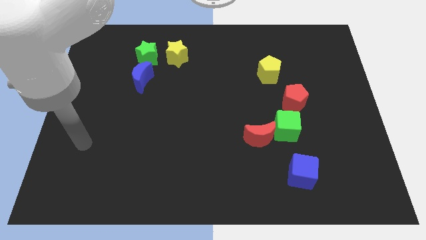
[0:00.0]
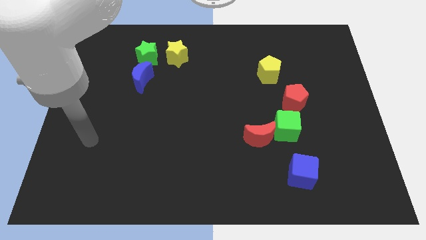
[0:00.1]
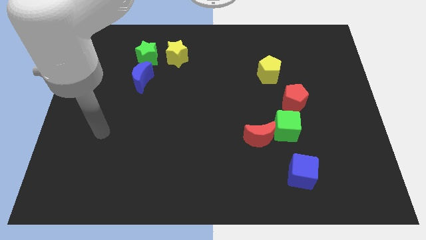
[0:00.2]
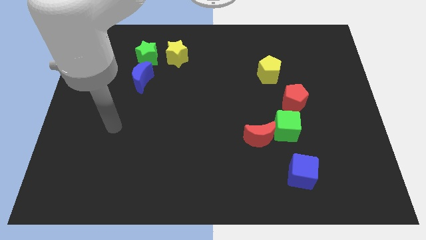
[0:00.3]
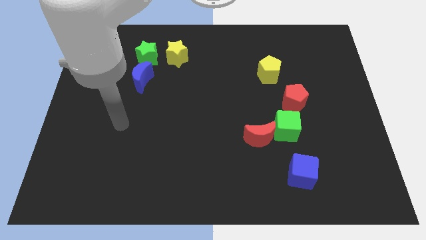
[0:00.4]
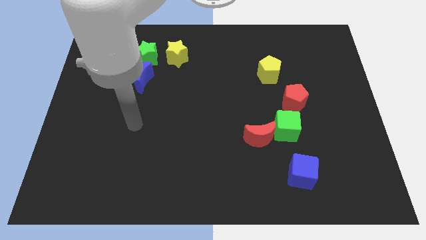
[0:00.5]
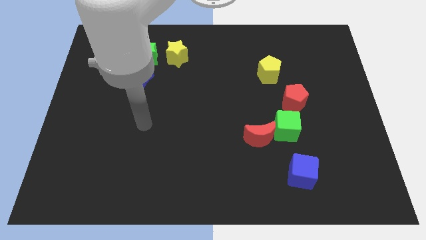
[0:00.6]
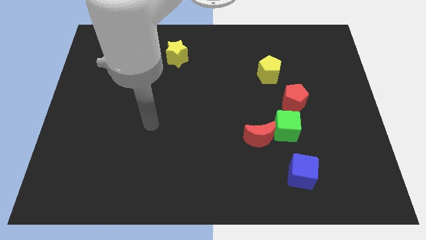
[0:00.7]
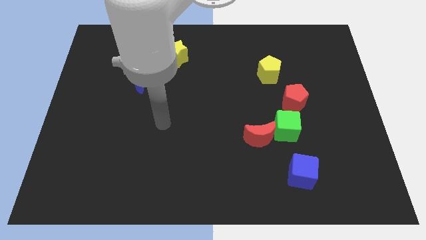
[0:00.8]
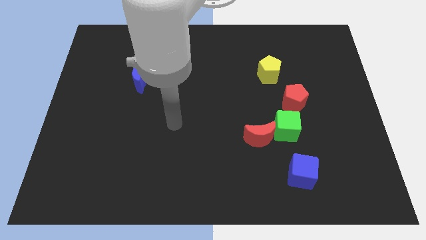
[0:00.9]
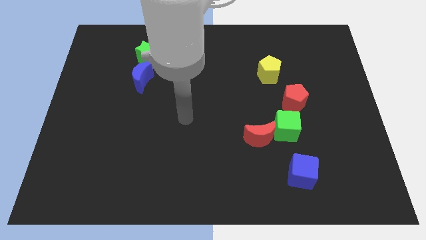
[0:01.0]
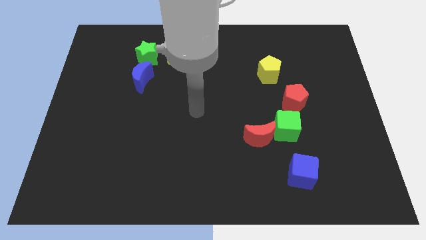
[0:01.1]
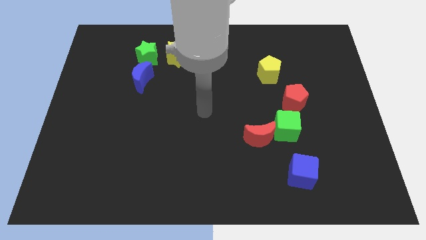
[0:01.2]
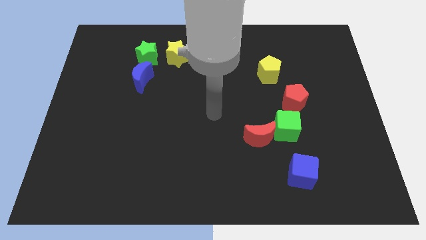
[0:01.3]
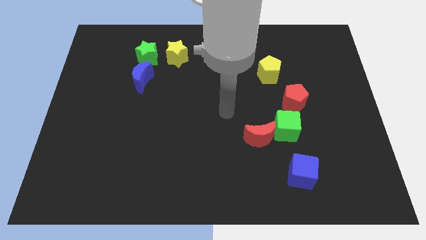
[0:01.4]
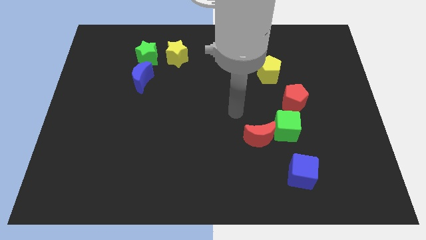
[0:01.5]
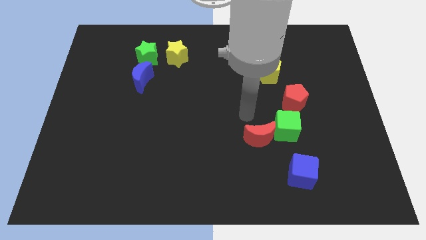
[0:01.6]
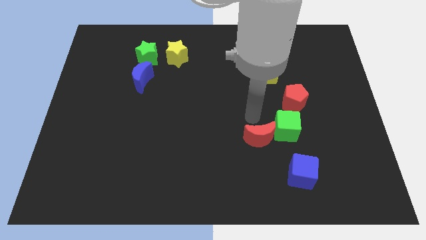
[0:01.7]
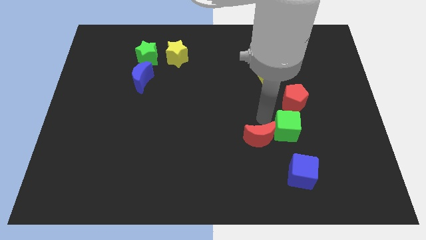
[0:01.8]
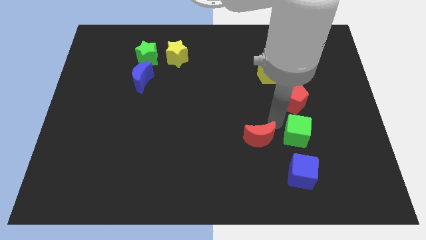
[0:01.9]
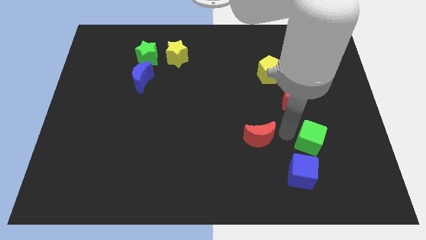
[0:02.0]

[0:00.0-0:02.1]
separate the red moon from the green cube

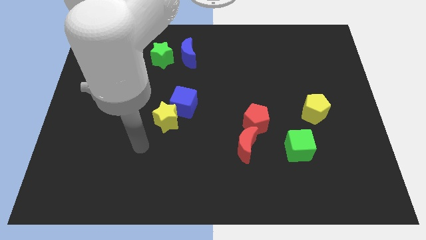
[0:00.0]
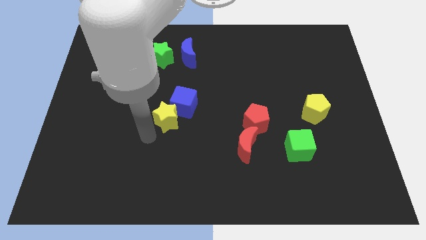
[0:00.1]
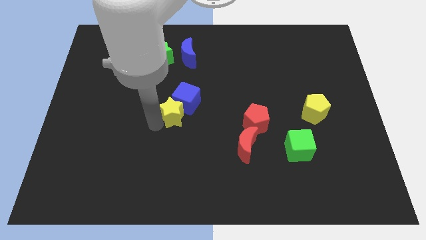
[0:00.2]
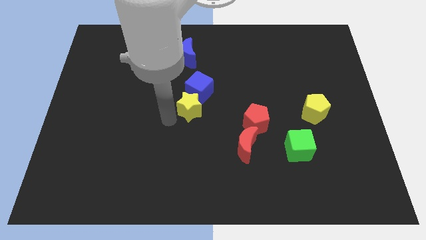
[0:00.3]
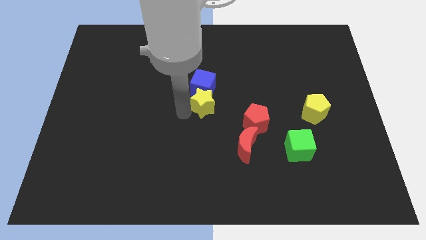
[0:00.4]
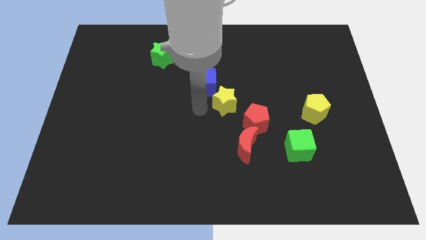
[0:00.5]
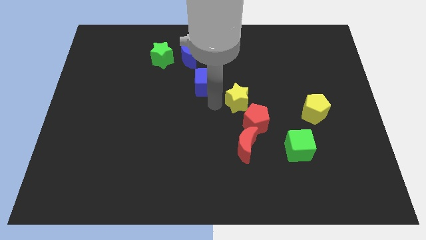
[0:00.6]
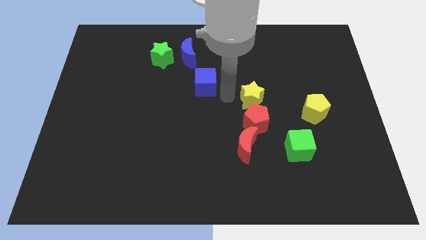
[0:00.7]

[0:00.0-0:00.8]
pull the blue cube apart from the yellow star

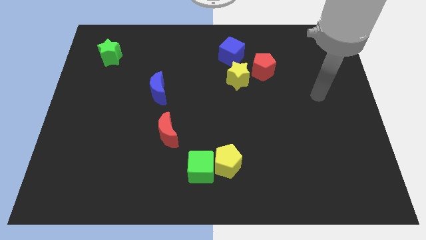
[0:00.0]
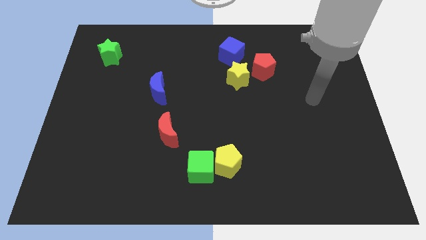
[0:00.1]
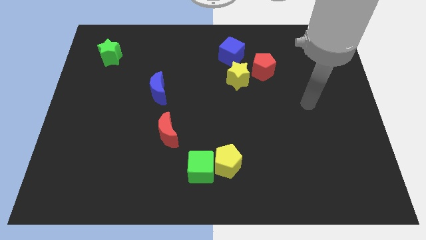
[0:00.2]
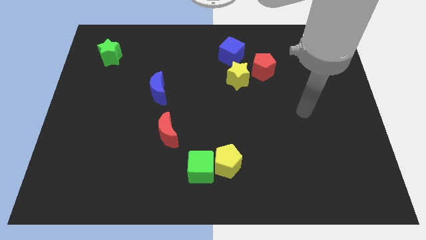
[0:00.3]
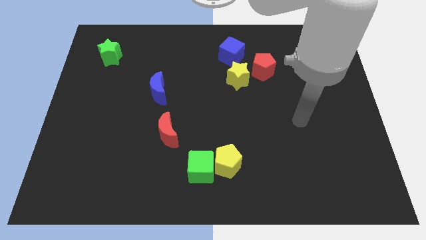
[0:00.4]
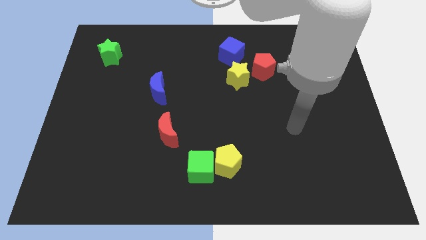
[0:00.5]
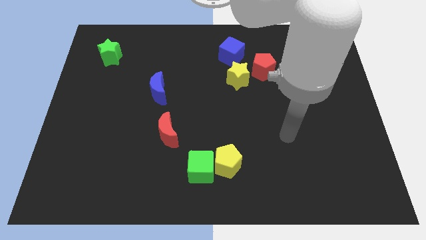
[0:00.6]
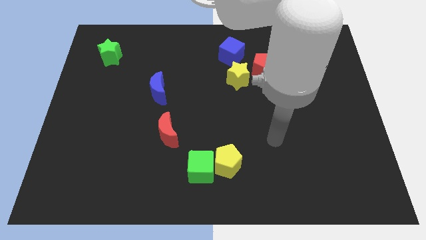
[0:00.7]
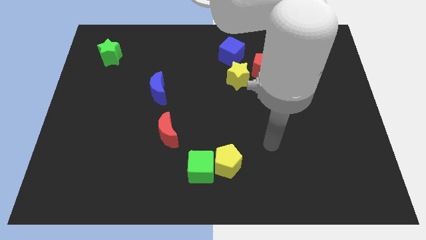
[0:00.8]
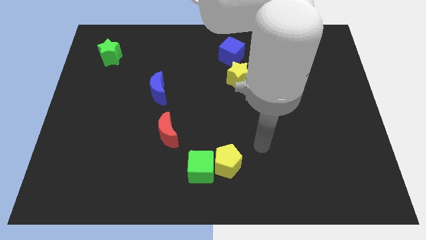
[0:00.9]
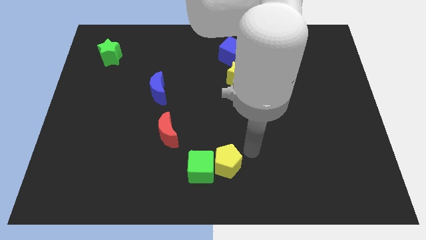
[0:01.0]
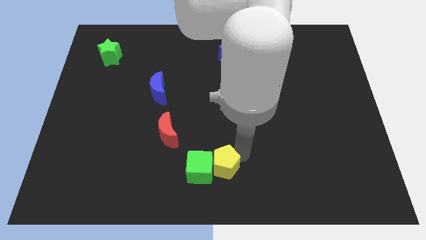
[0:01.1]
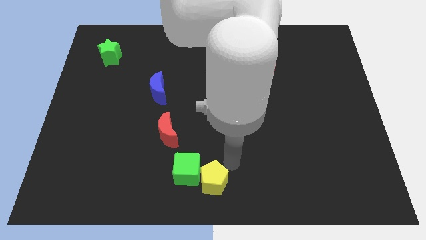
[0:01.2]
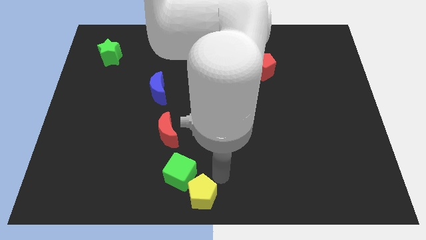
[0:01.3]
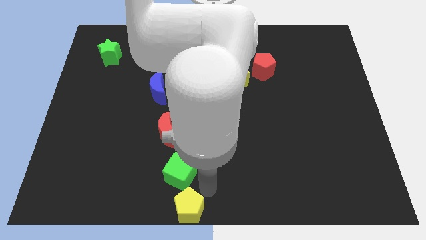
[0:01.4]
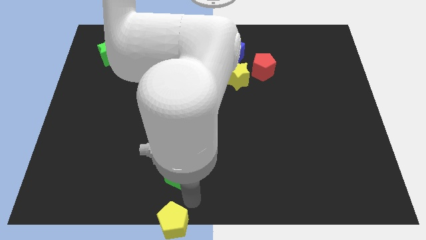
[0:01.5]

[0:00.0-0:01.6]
separate the green cube from the yellow pentagon

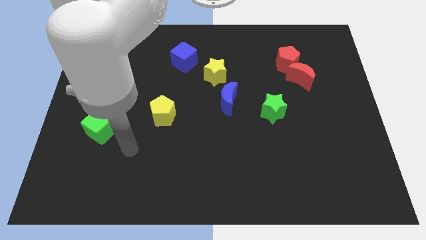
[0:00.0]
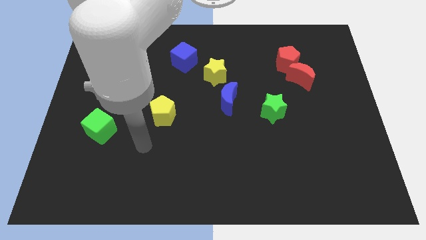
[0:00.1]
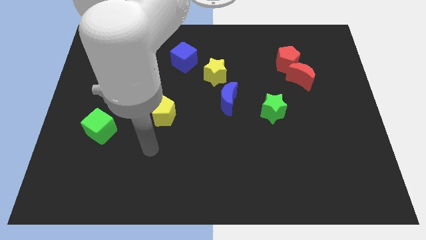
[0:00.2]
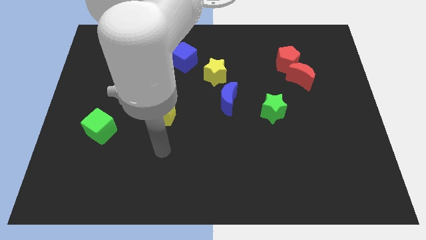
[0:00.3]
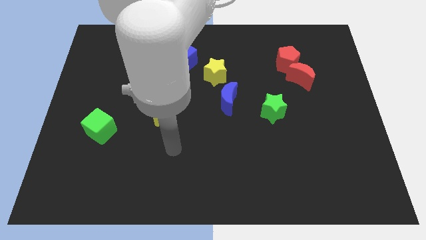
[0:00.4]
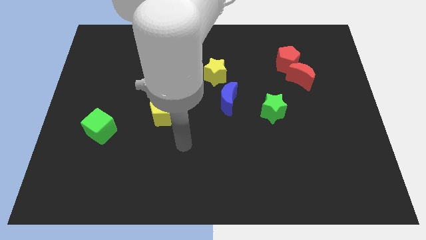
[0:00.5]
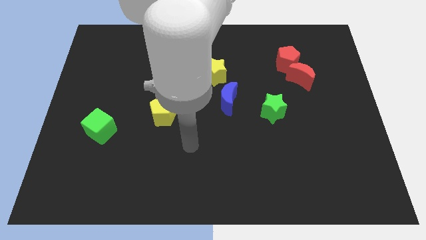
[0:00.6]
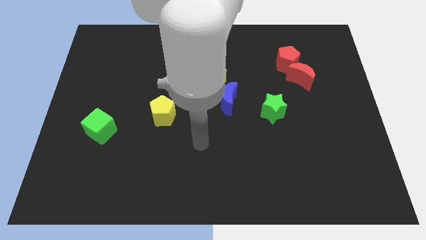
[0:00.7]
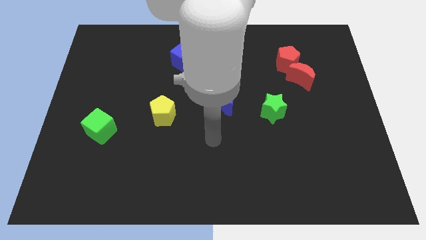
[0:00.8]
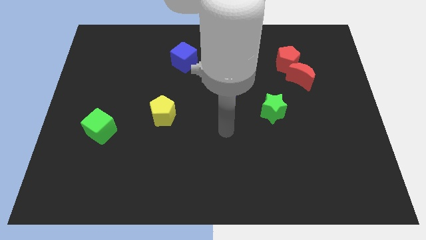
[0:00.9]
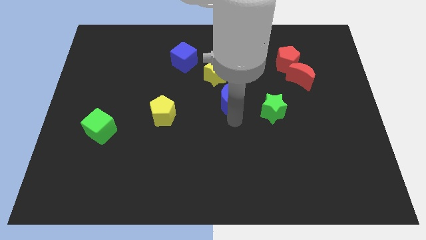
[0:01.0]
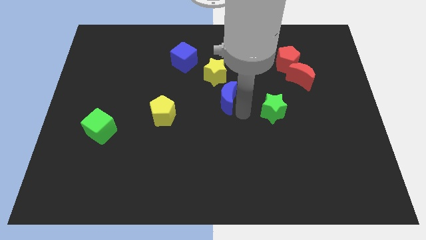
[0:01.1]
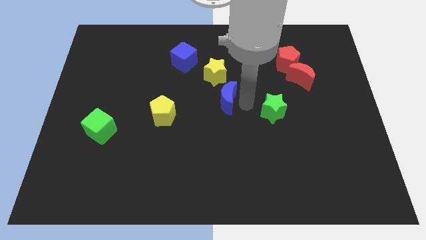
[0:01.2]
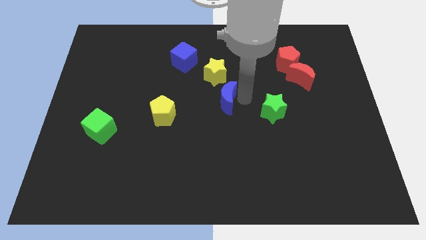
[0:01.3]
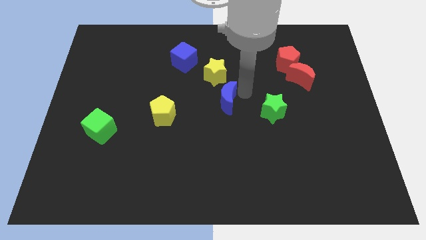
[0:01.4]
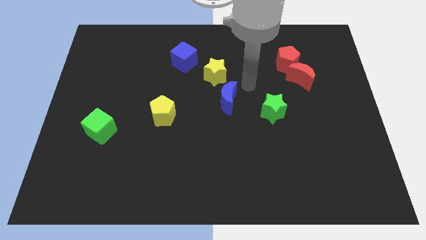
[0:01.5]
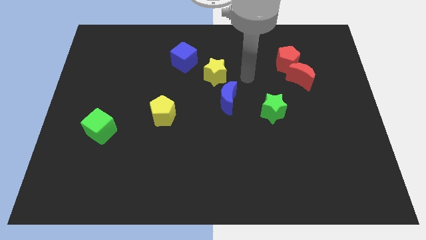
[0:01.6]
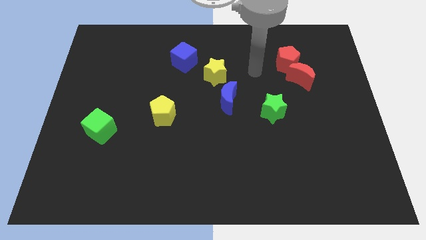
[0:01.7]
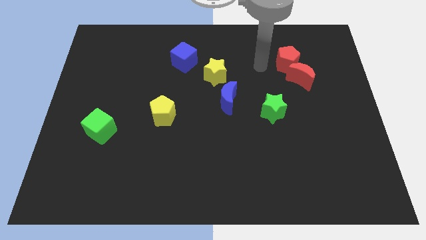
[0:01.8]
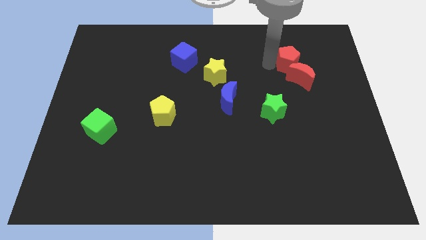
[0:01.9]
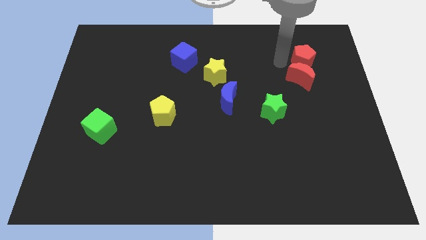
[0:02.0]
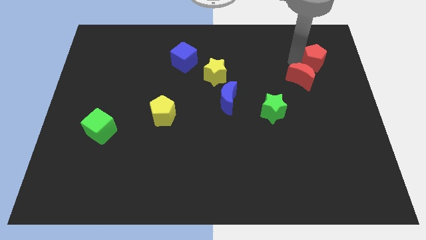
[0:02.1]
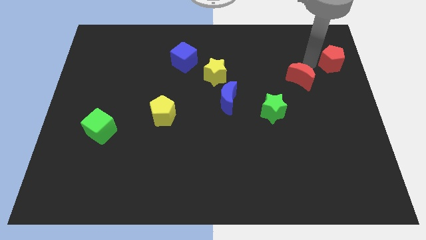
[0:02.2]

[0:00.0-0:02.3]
pull the red moon apart from the red pentagon

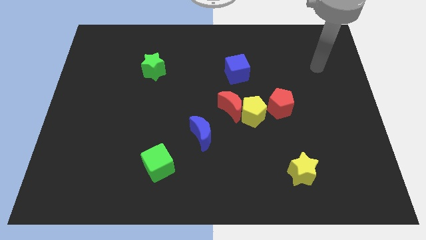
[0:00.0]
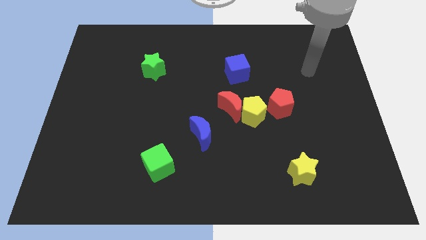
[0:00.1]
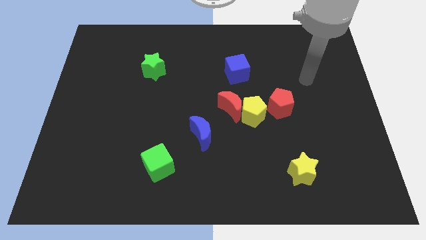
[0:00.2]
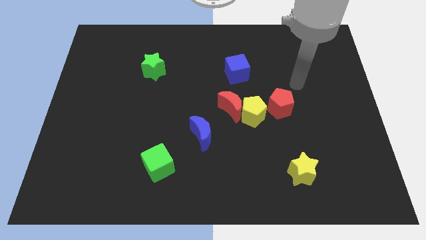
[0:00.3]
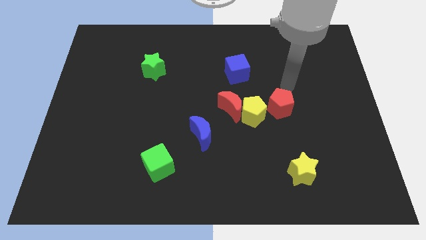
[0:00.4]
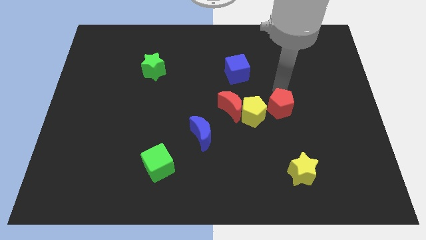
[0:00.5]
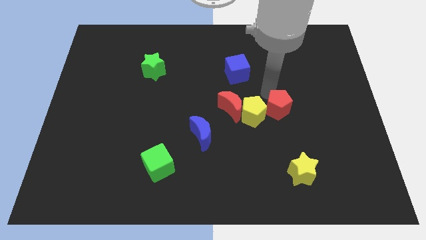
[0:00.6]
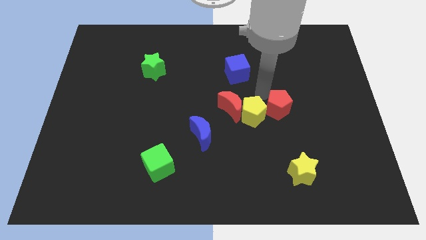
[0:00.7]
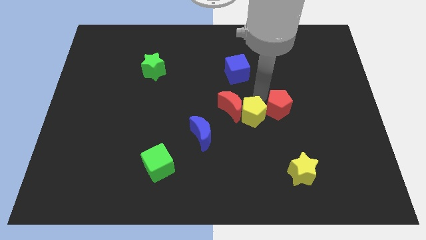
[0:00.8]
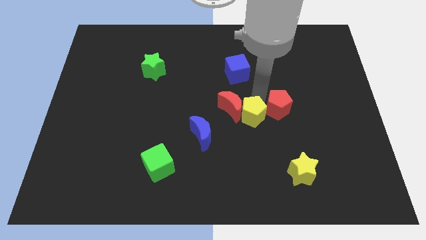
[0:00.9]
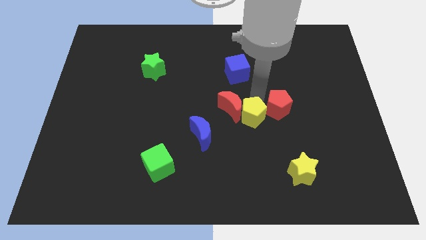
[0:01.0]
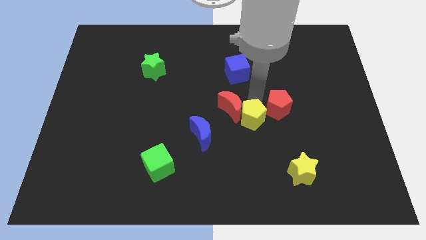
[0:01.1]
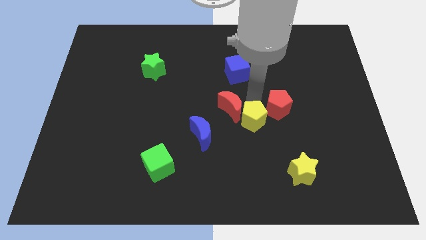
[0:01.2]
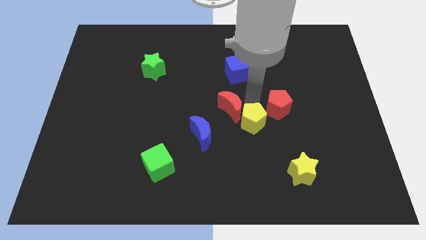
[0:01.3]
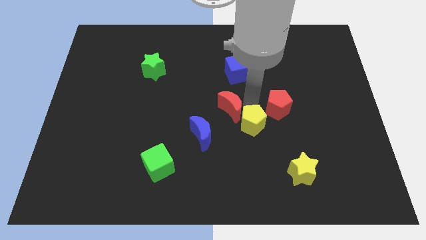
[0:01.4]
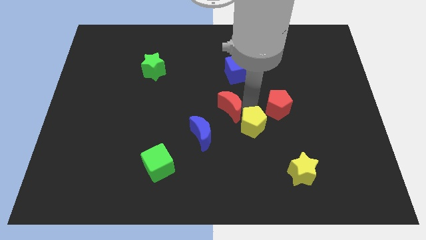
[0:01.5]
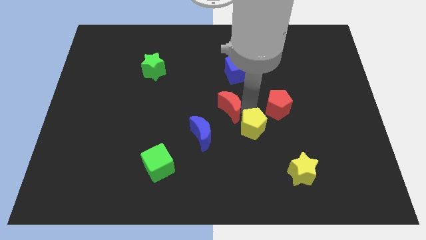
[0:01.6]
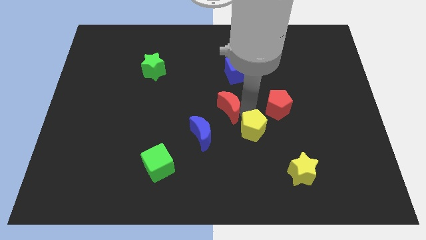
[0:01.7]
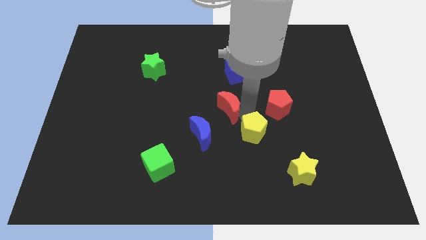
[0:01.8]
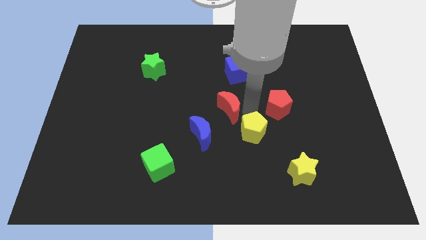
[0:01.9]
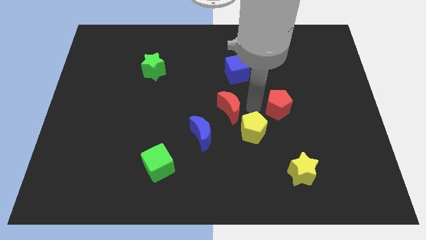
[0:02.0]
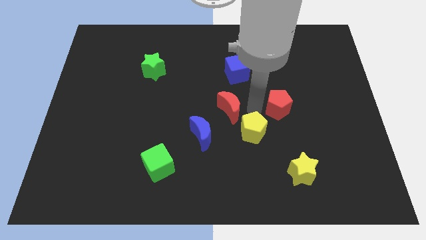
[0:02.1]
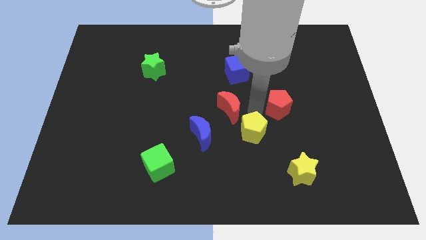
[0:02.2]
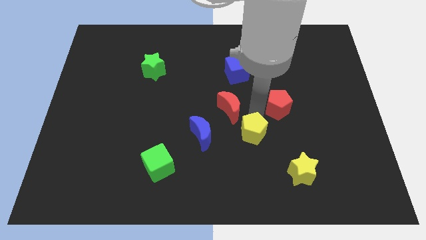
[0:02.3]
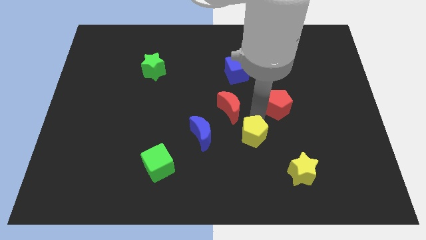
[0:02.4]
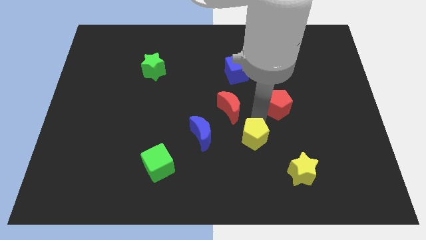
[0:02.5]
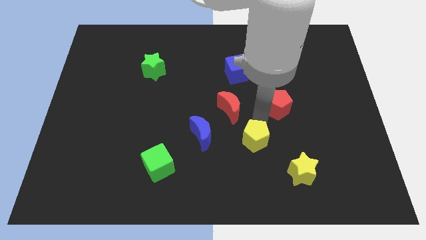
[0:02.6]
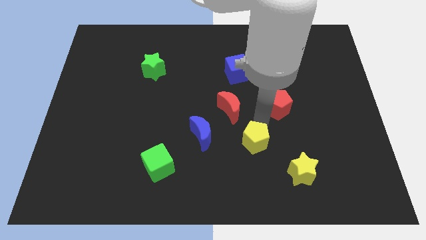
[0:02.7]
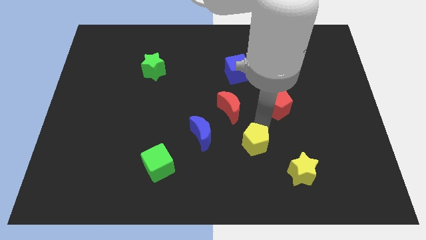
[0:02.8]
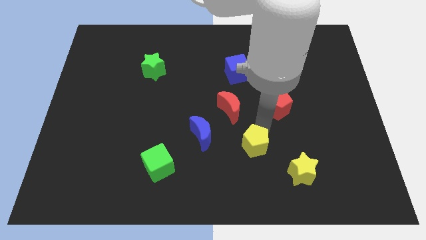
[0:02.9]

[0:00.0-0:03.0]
pull the yellow pentagon apart from the red moon and red pentagon
